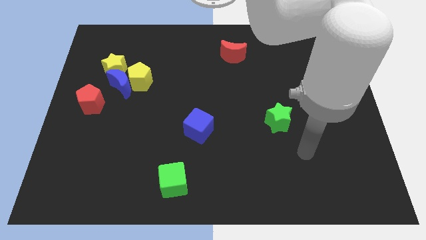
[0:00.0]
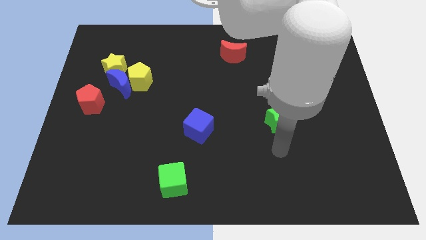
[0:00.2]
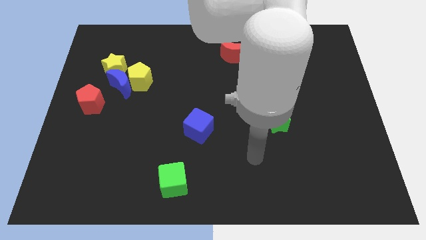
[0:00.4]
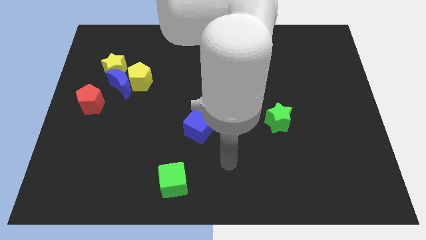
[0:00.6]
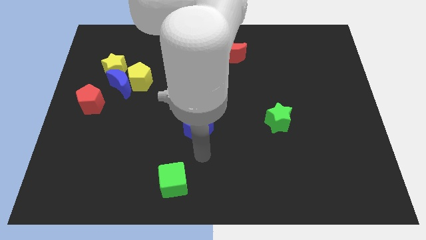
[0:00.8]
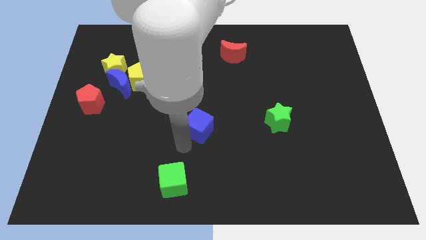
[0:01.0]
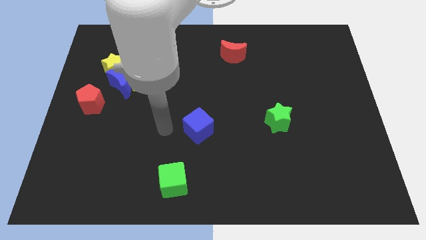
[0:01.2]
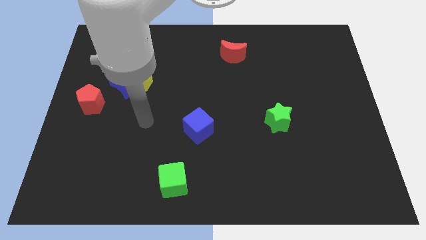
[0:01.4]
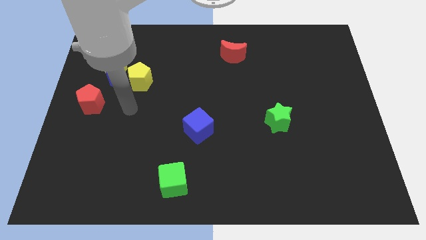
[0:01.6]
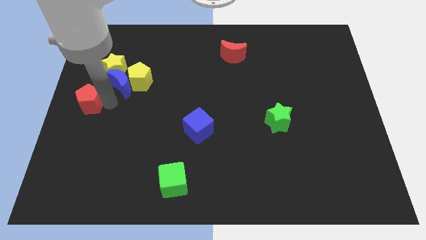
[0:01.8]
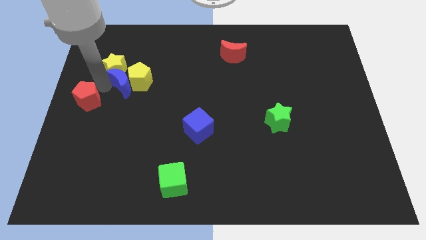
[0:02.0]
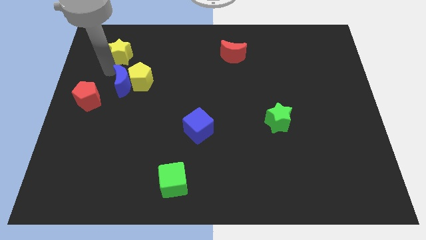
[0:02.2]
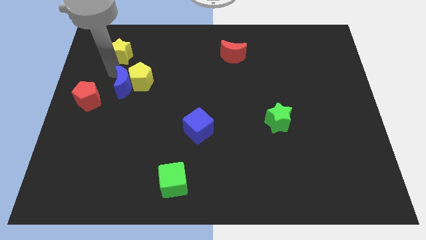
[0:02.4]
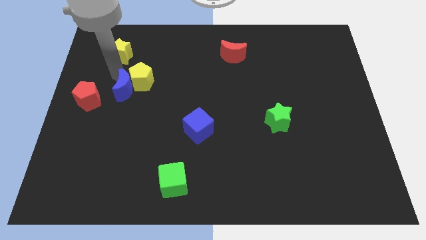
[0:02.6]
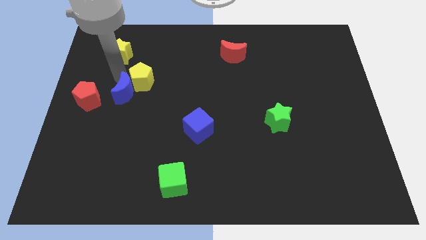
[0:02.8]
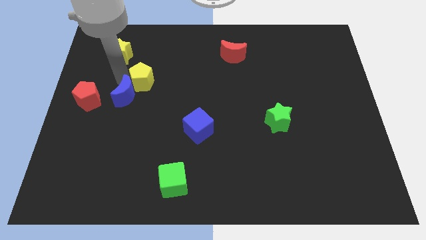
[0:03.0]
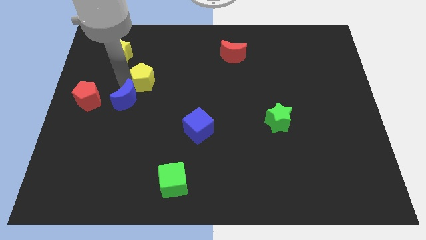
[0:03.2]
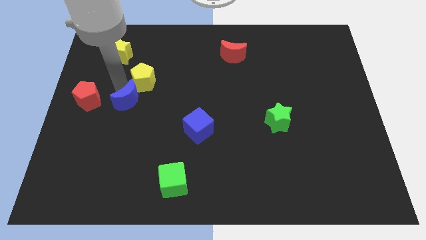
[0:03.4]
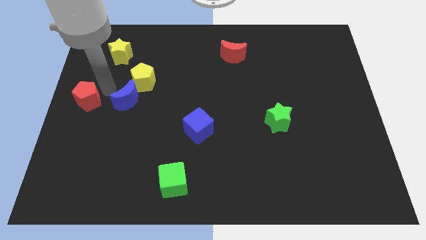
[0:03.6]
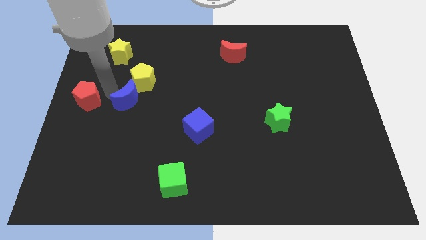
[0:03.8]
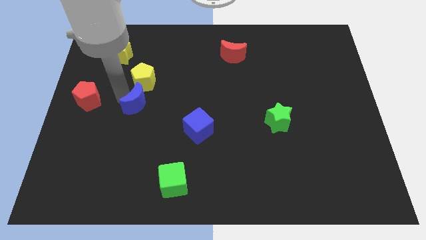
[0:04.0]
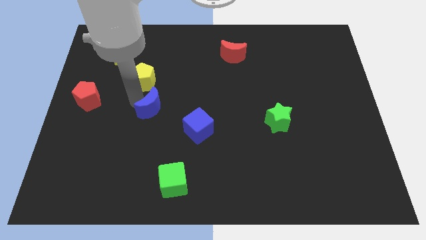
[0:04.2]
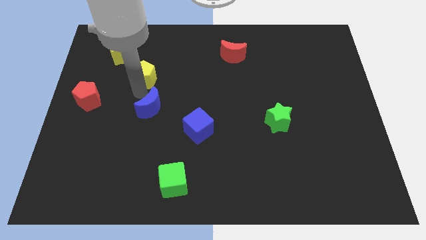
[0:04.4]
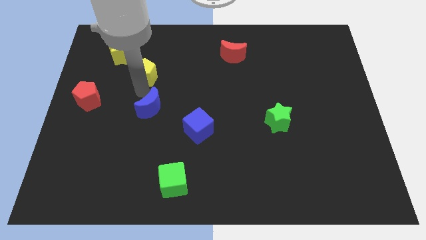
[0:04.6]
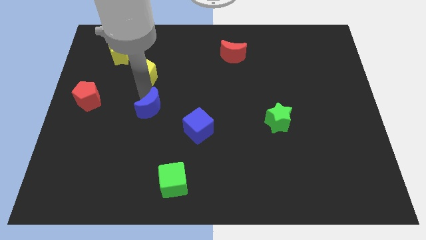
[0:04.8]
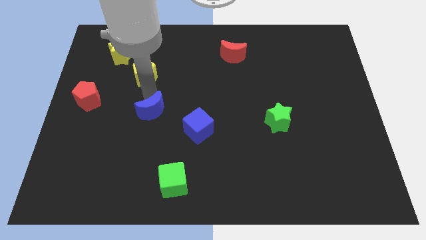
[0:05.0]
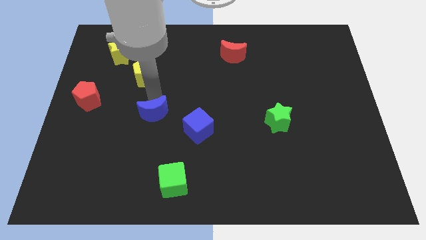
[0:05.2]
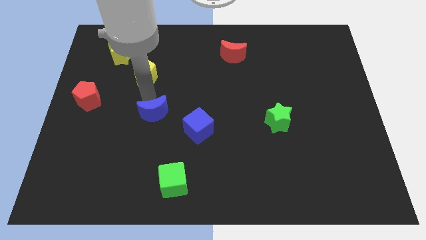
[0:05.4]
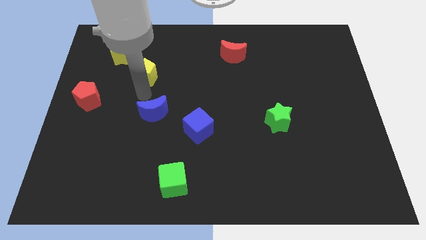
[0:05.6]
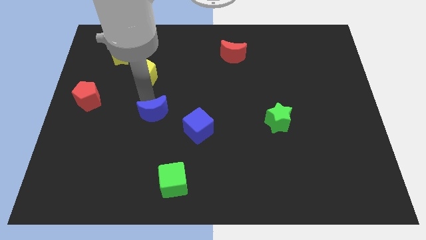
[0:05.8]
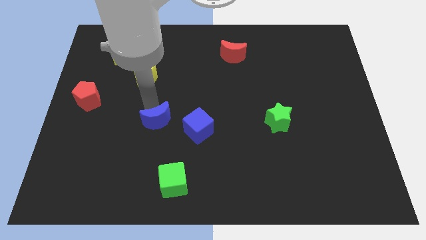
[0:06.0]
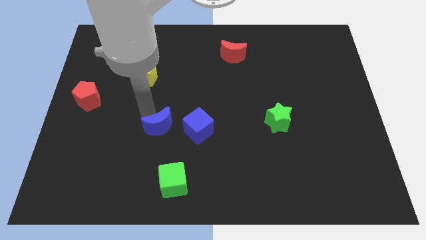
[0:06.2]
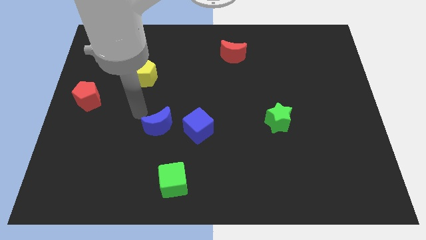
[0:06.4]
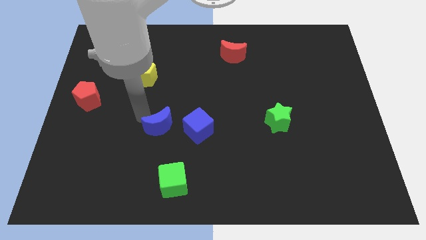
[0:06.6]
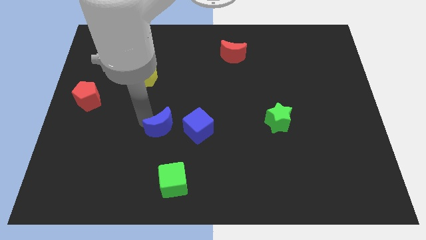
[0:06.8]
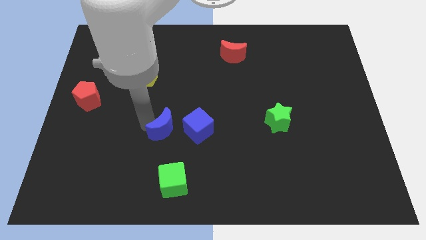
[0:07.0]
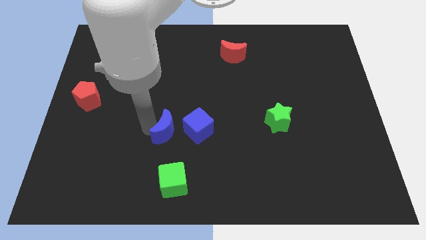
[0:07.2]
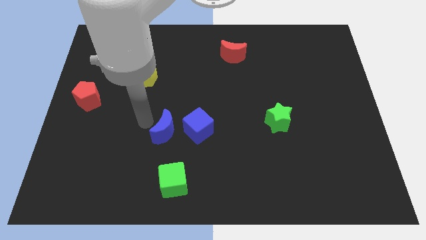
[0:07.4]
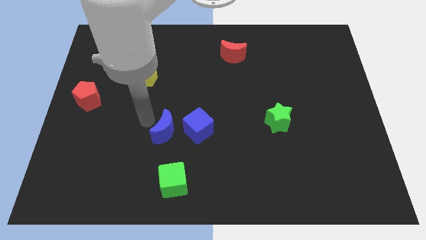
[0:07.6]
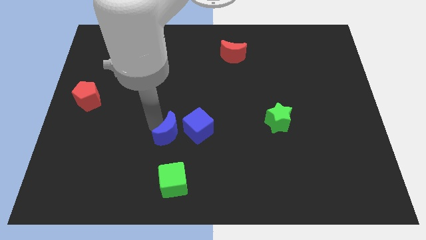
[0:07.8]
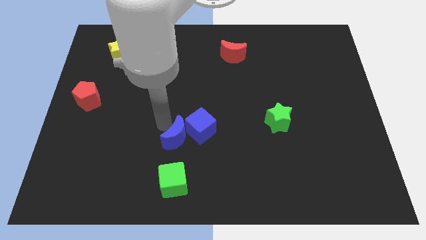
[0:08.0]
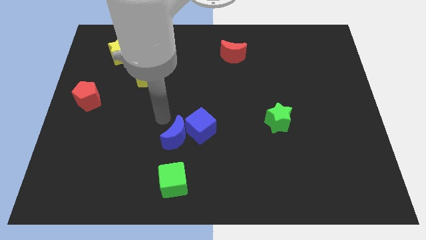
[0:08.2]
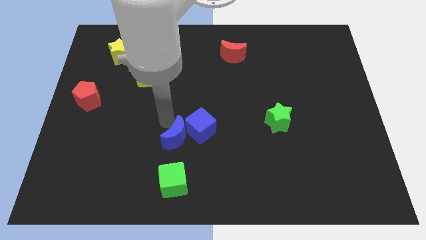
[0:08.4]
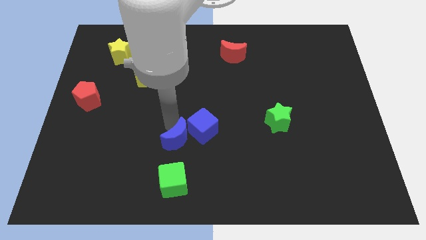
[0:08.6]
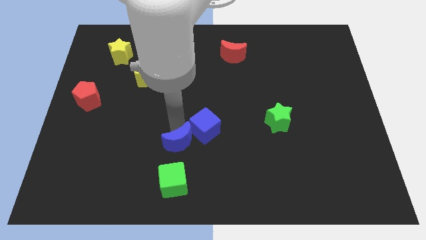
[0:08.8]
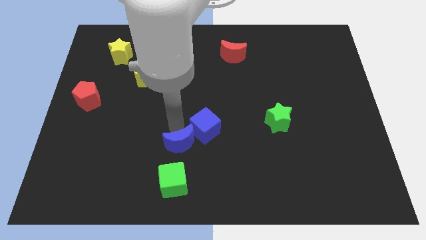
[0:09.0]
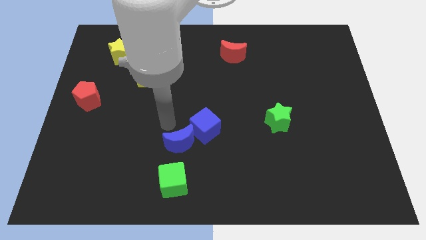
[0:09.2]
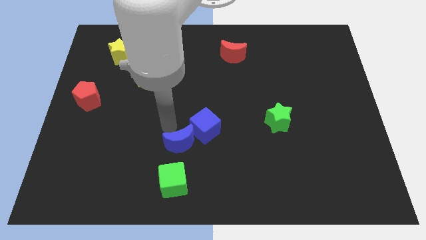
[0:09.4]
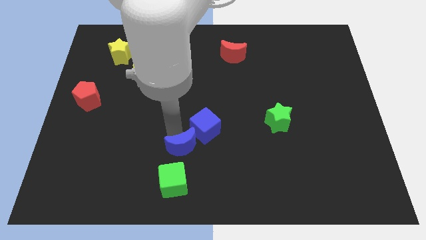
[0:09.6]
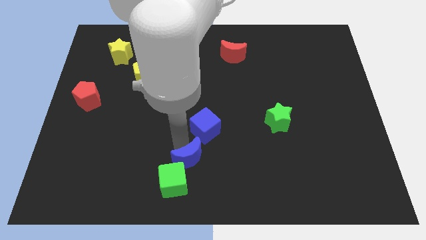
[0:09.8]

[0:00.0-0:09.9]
slide the blue moon to the bottom

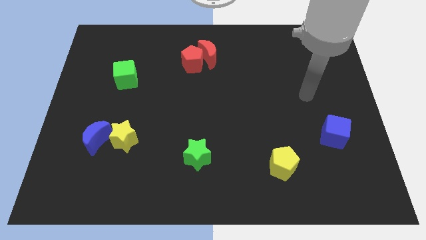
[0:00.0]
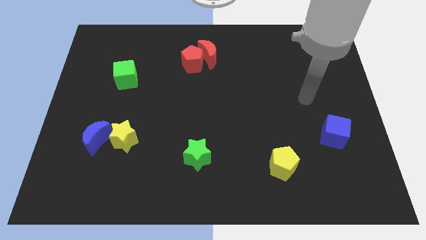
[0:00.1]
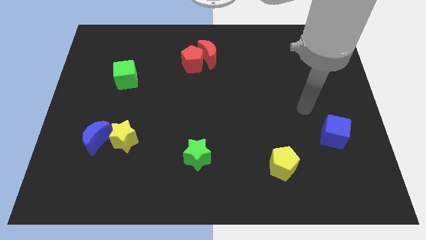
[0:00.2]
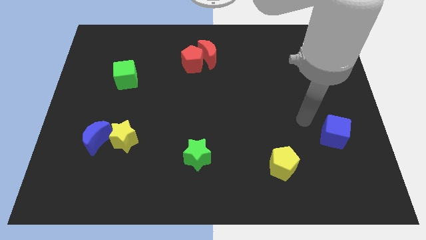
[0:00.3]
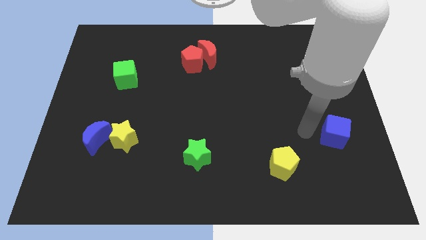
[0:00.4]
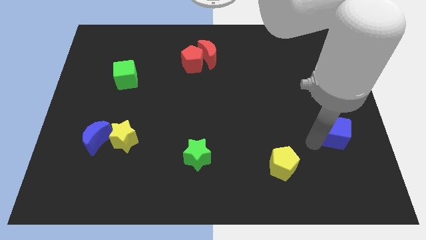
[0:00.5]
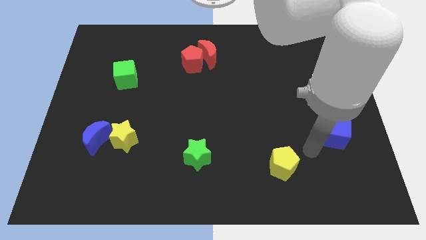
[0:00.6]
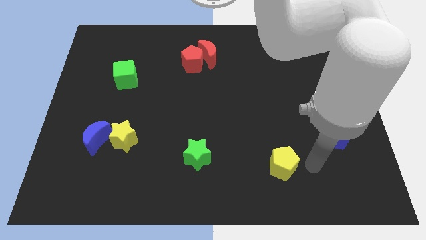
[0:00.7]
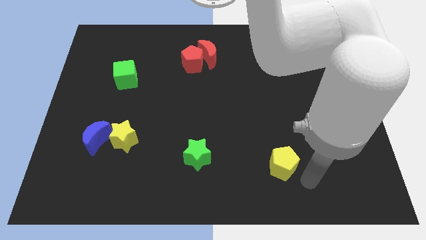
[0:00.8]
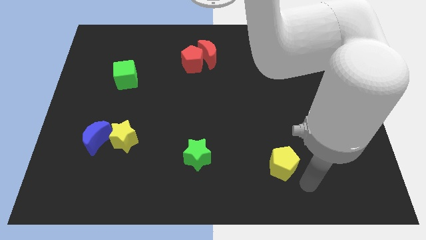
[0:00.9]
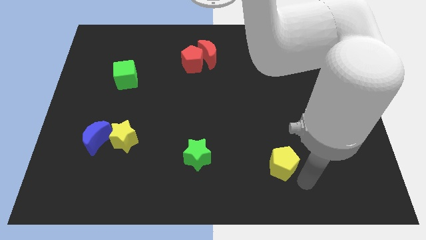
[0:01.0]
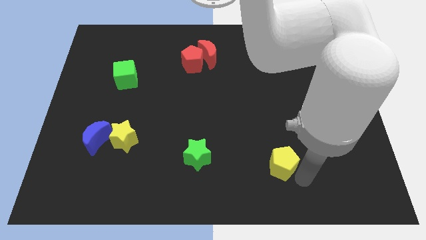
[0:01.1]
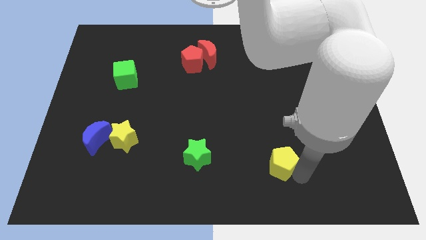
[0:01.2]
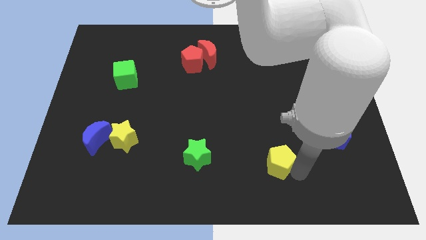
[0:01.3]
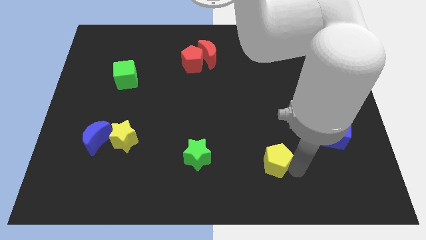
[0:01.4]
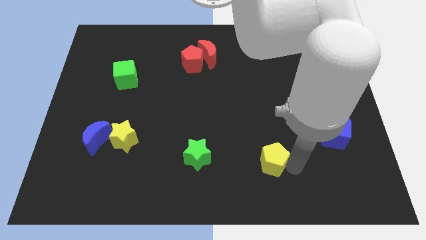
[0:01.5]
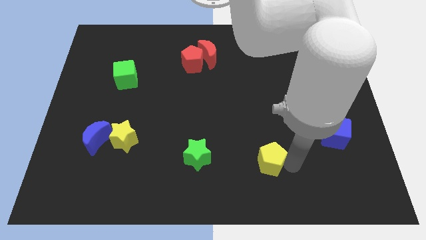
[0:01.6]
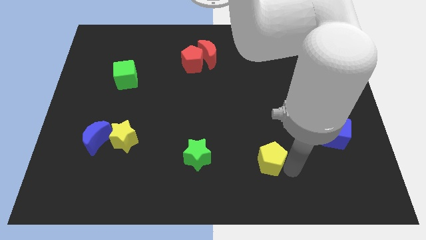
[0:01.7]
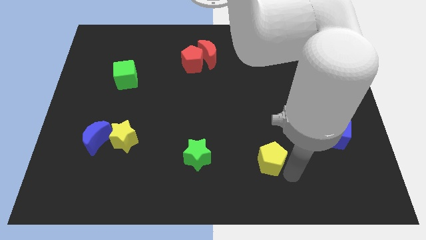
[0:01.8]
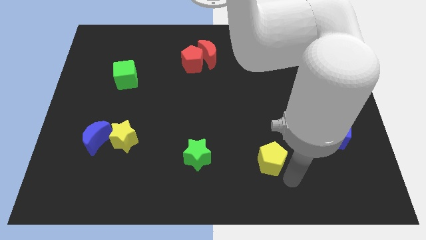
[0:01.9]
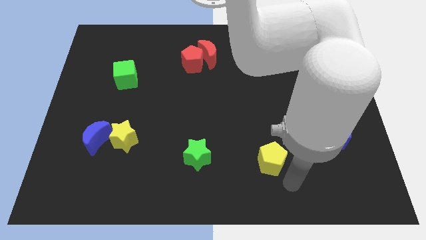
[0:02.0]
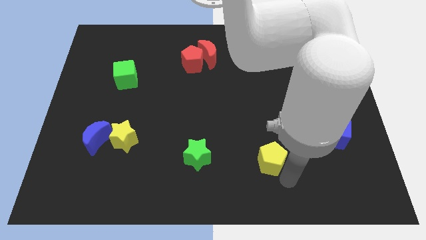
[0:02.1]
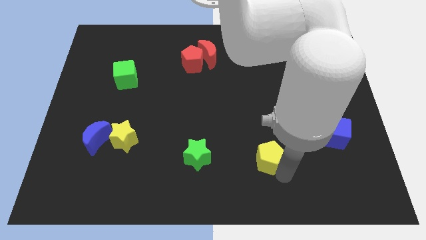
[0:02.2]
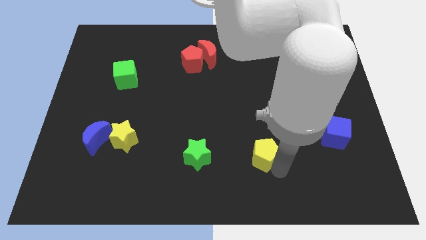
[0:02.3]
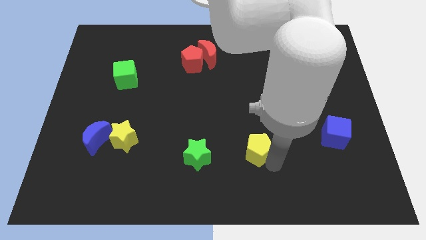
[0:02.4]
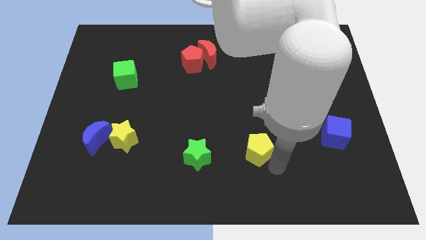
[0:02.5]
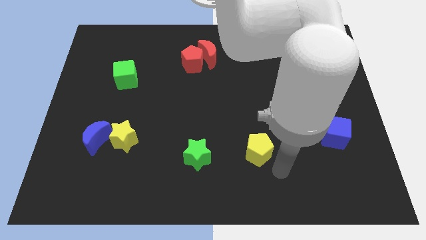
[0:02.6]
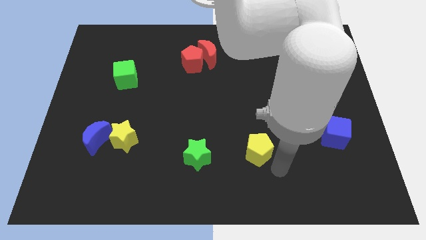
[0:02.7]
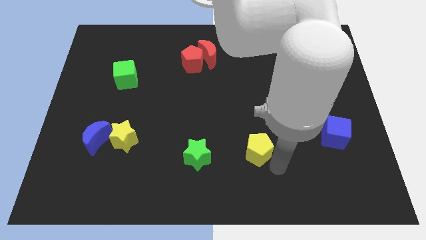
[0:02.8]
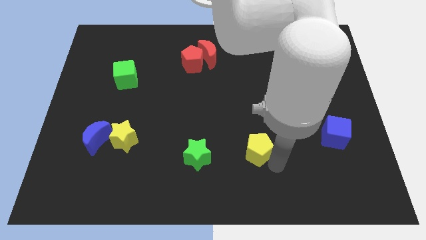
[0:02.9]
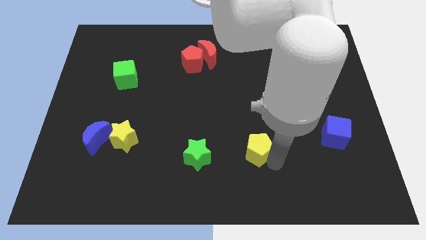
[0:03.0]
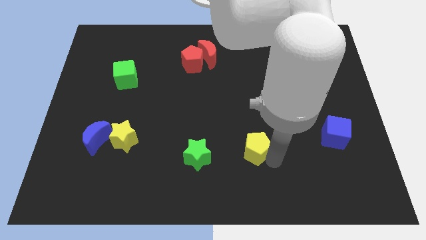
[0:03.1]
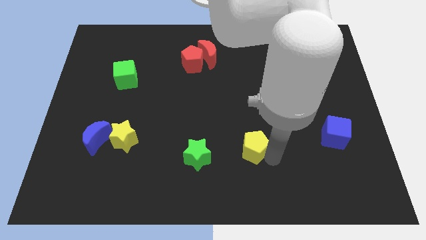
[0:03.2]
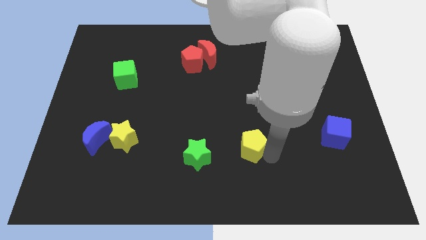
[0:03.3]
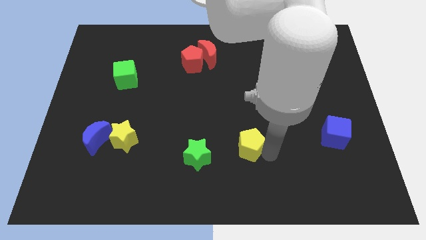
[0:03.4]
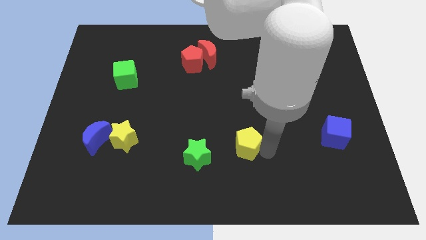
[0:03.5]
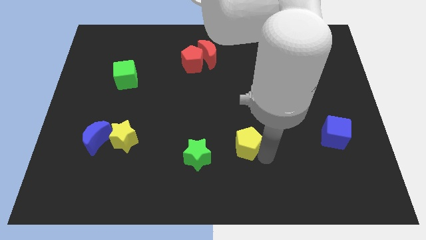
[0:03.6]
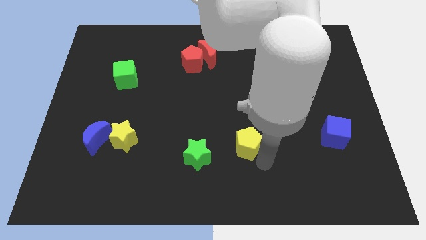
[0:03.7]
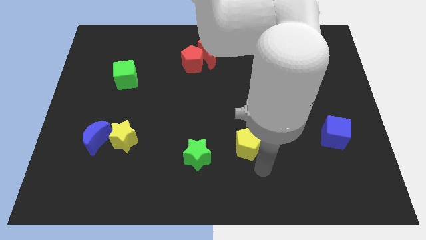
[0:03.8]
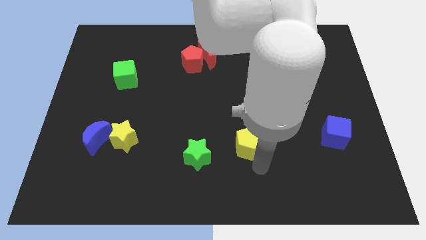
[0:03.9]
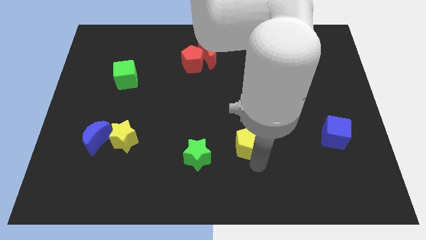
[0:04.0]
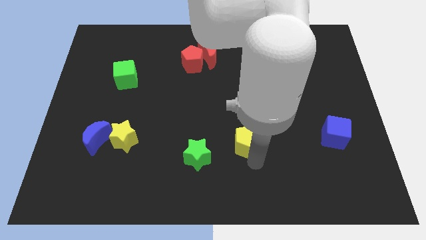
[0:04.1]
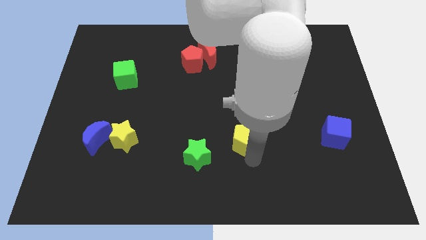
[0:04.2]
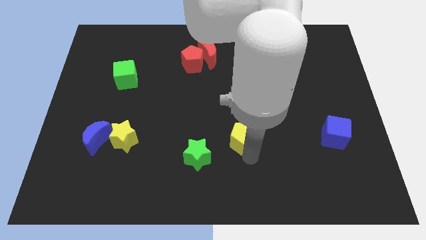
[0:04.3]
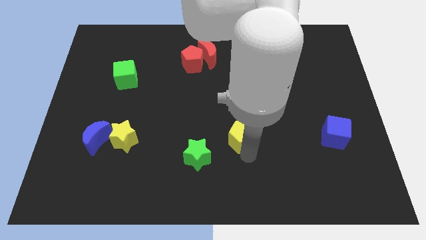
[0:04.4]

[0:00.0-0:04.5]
push the yellow pentagon to the middle of the board
